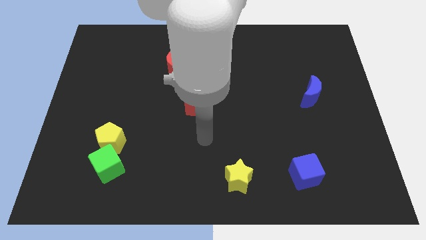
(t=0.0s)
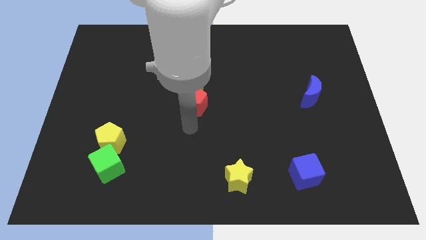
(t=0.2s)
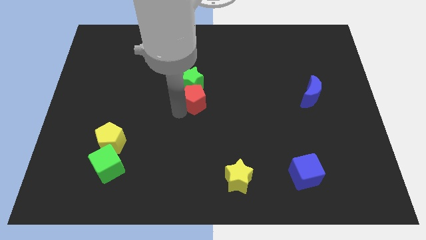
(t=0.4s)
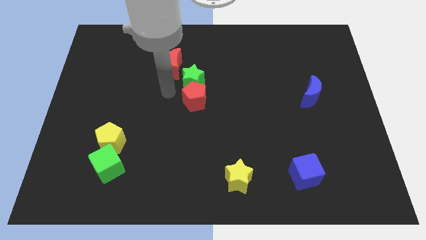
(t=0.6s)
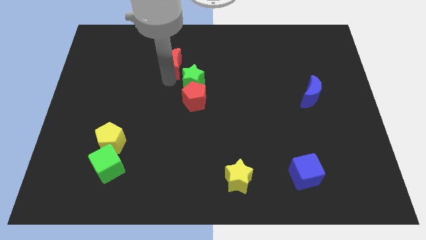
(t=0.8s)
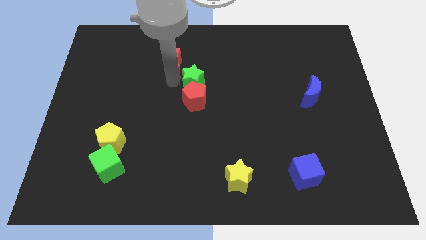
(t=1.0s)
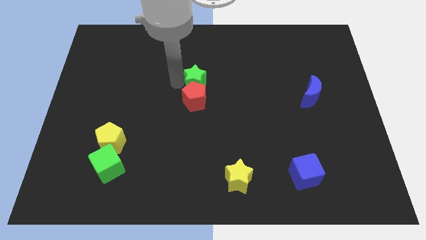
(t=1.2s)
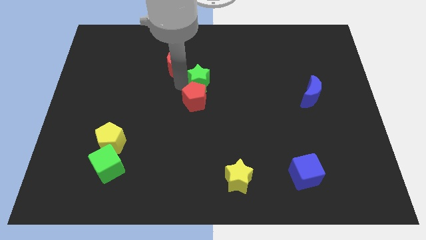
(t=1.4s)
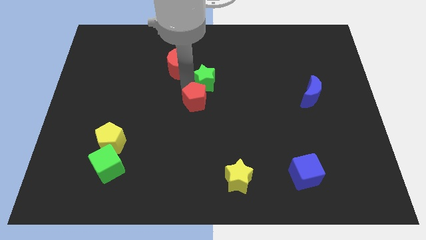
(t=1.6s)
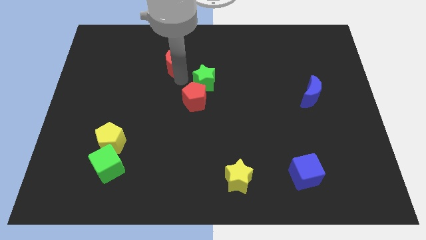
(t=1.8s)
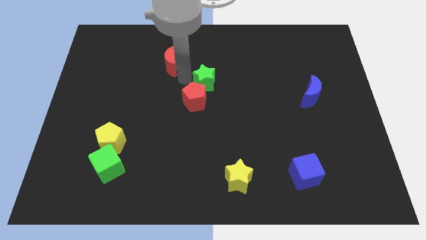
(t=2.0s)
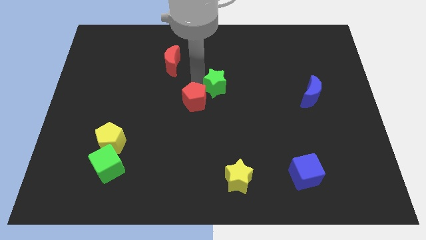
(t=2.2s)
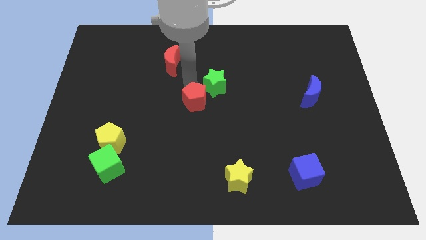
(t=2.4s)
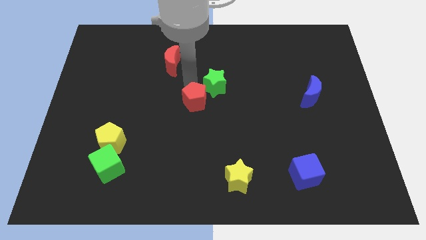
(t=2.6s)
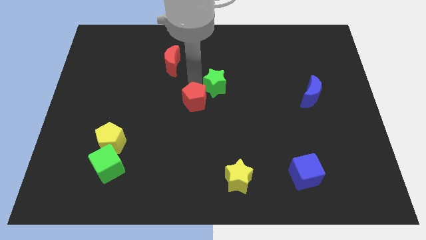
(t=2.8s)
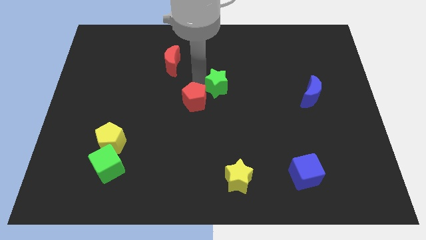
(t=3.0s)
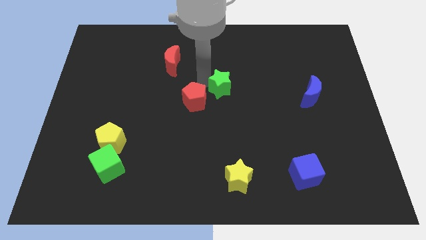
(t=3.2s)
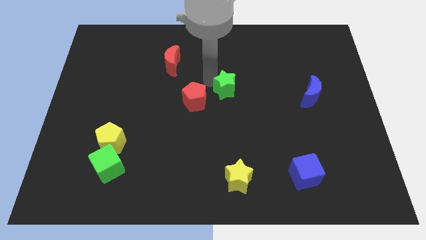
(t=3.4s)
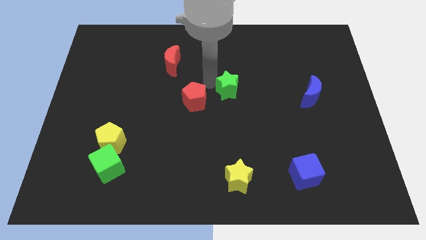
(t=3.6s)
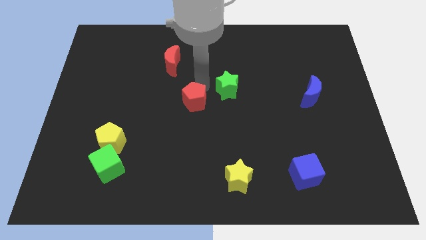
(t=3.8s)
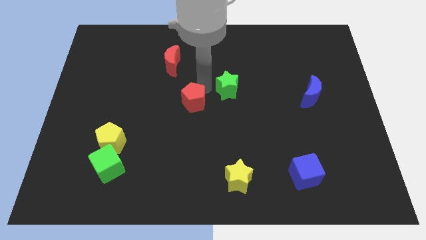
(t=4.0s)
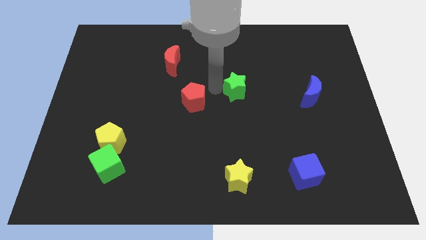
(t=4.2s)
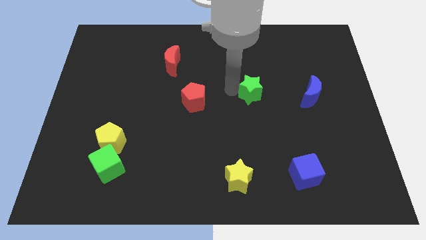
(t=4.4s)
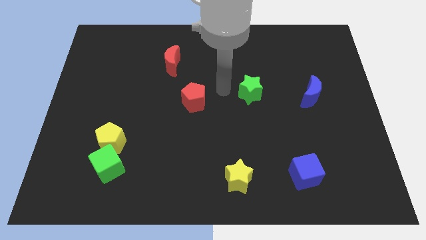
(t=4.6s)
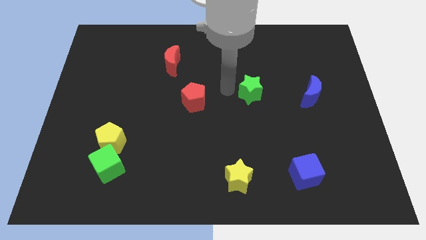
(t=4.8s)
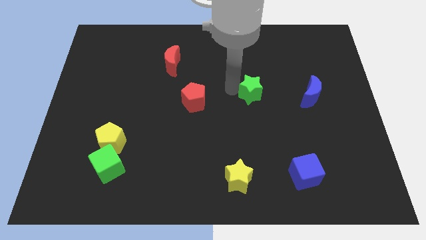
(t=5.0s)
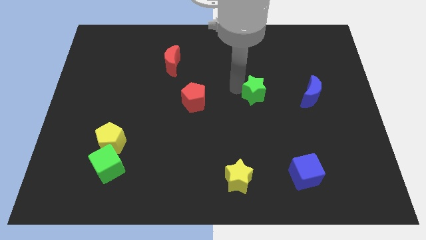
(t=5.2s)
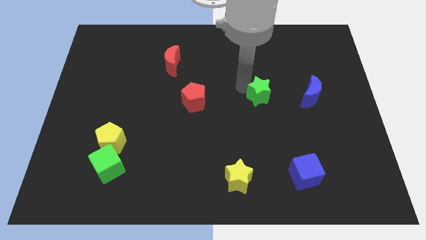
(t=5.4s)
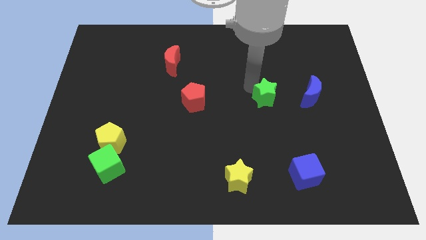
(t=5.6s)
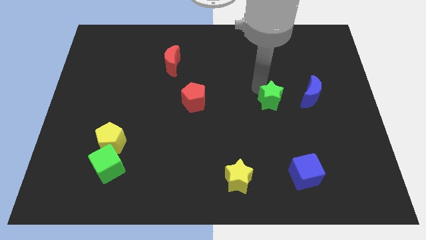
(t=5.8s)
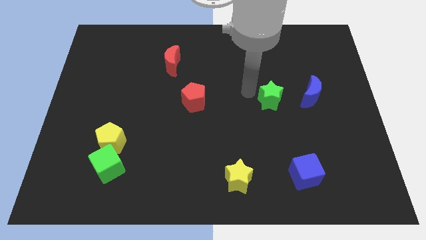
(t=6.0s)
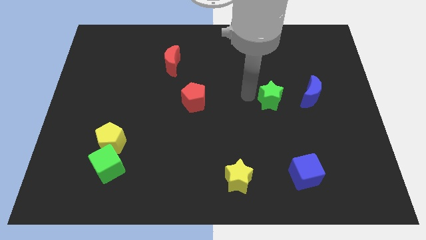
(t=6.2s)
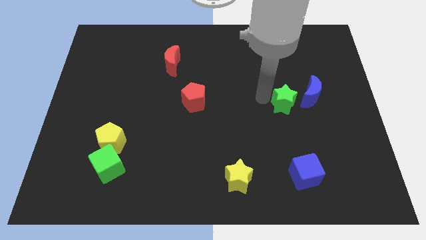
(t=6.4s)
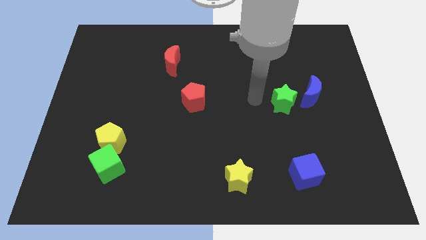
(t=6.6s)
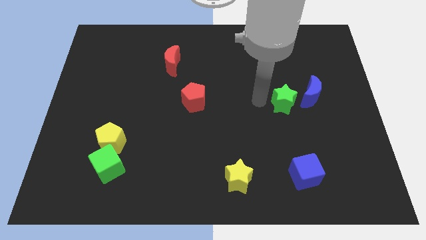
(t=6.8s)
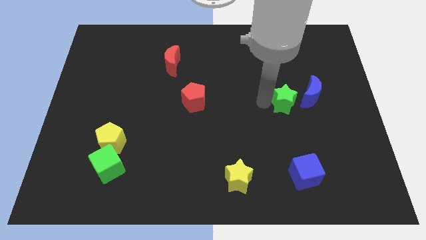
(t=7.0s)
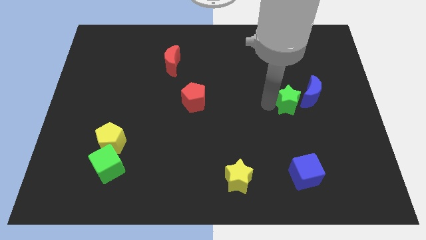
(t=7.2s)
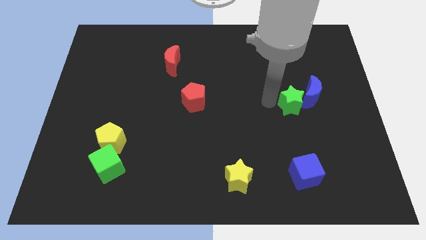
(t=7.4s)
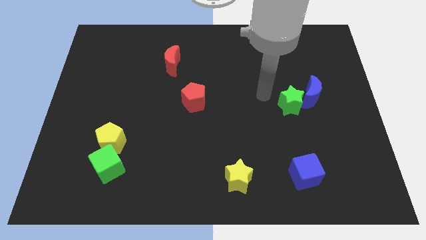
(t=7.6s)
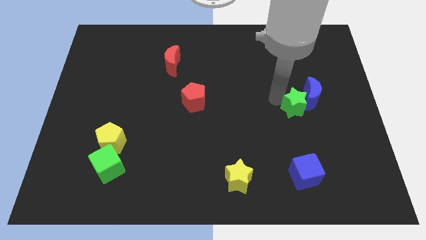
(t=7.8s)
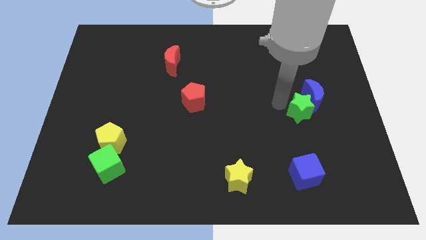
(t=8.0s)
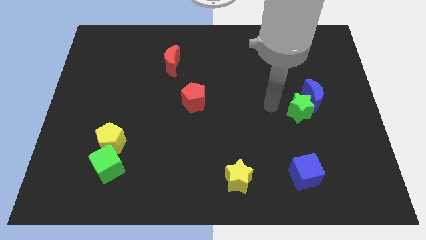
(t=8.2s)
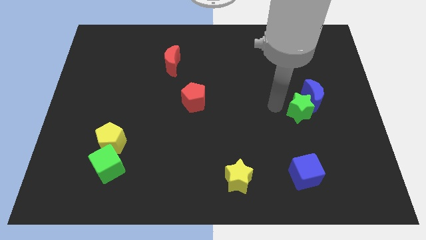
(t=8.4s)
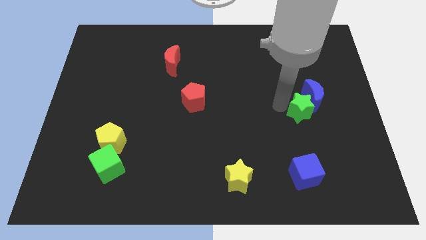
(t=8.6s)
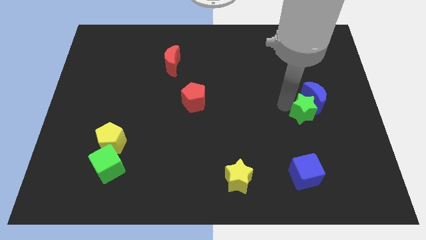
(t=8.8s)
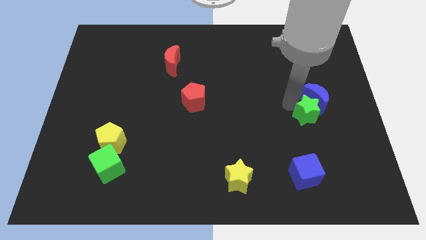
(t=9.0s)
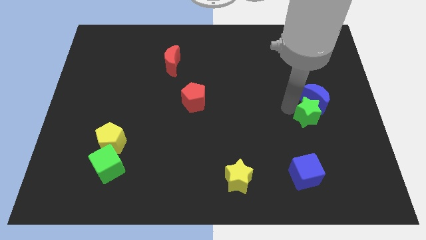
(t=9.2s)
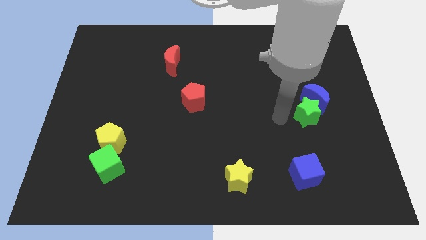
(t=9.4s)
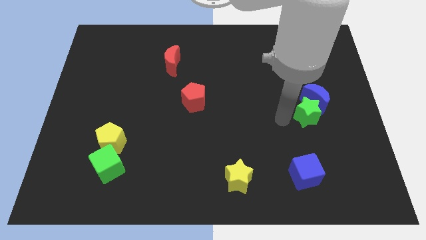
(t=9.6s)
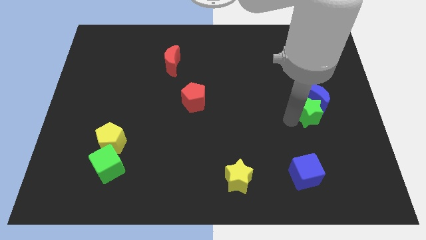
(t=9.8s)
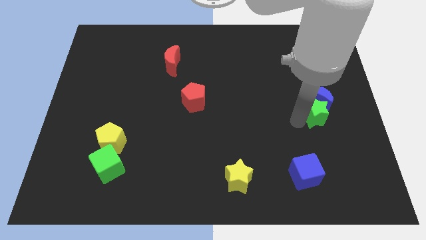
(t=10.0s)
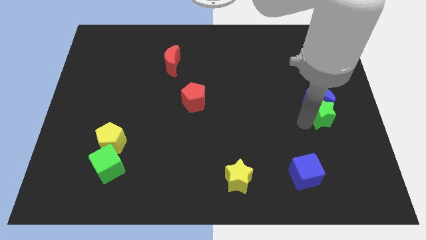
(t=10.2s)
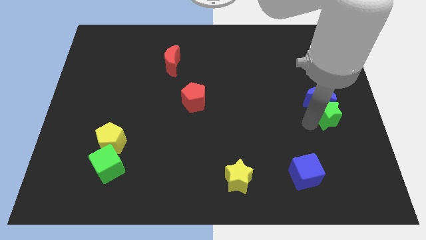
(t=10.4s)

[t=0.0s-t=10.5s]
slide the green star to the right side
